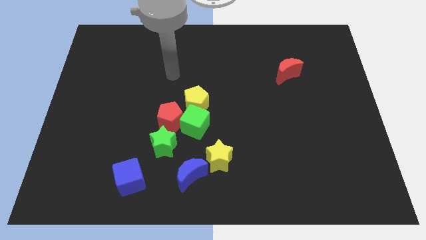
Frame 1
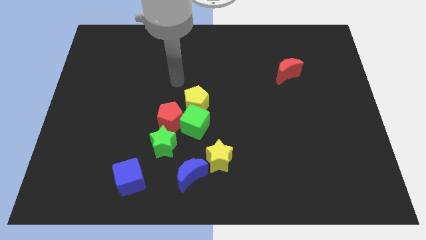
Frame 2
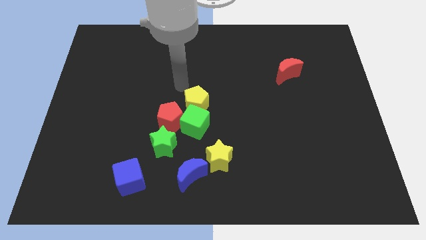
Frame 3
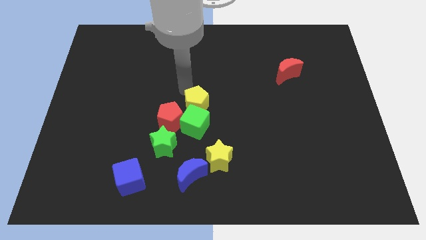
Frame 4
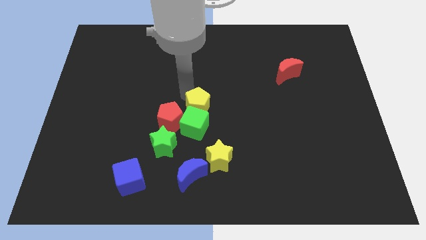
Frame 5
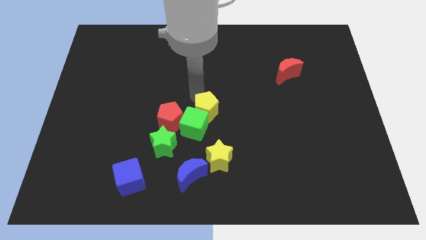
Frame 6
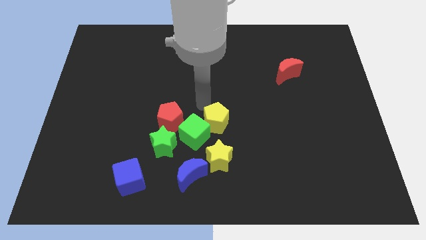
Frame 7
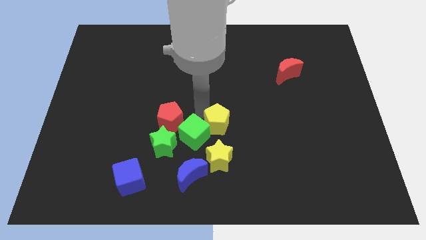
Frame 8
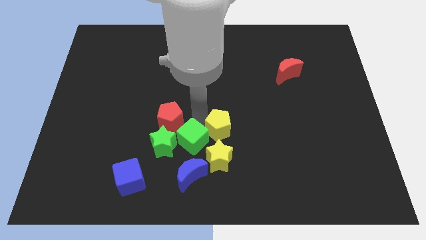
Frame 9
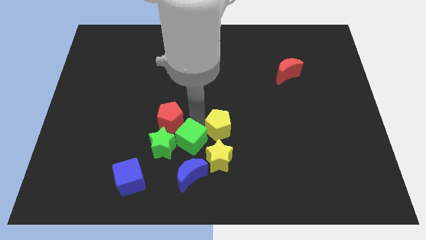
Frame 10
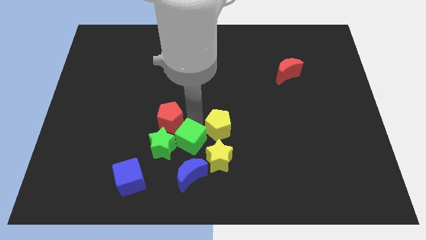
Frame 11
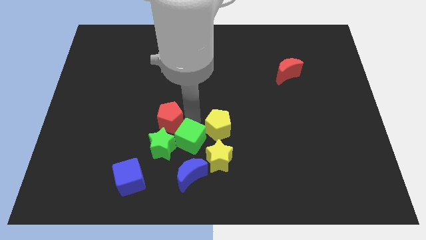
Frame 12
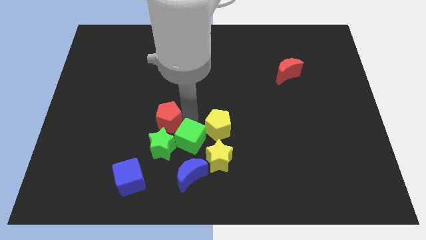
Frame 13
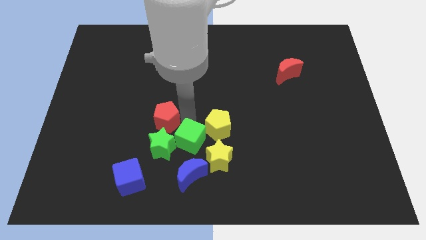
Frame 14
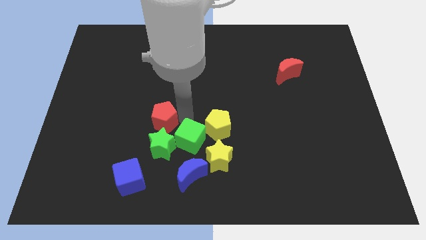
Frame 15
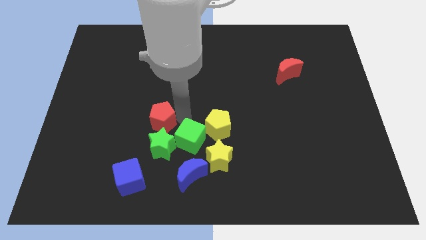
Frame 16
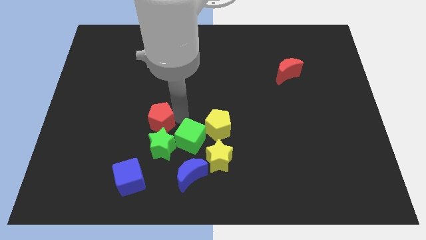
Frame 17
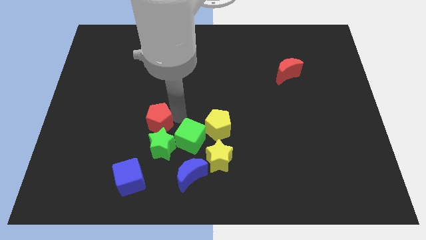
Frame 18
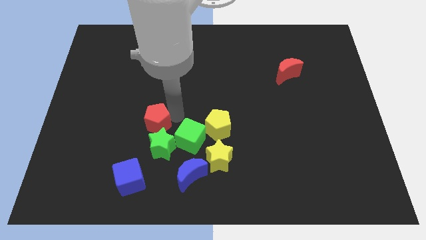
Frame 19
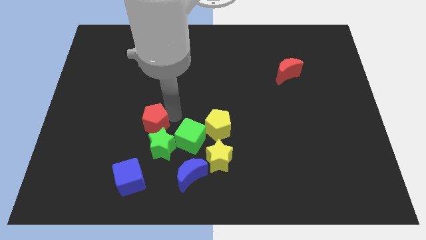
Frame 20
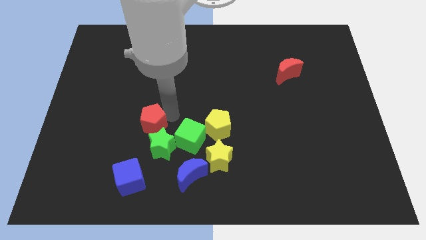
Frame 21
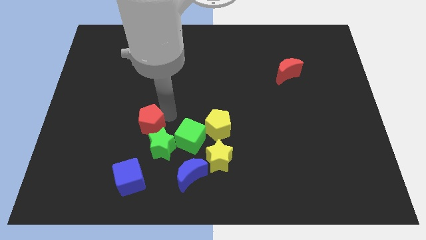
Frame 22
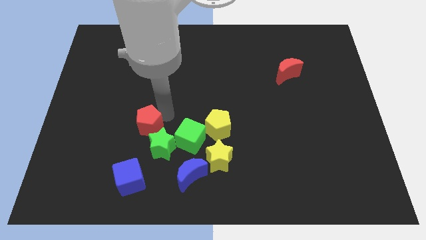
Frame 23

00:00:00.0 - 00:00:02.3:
separate the red pentagon from the green cube, green star, and yellow pentagon

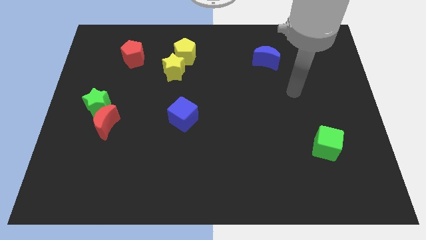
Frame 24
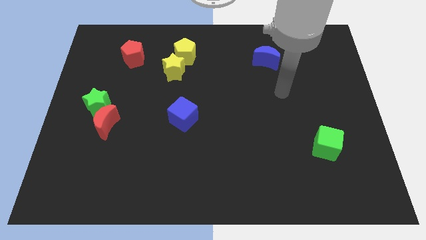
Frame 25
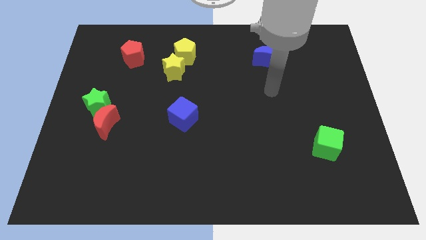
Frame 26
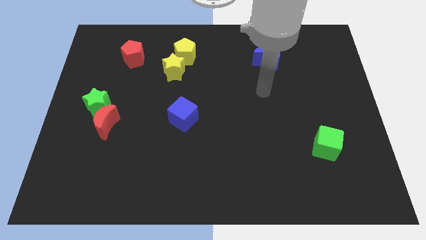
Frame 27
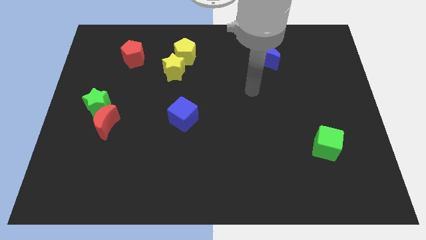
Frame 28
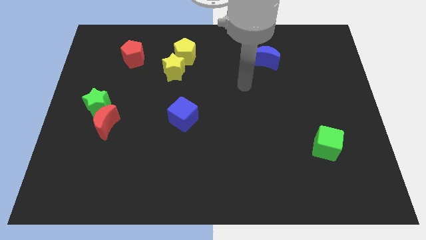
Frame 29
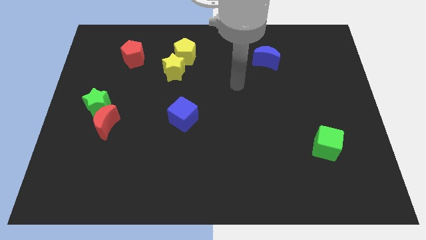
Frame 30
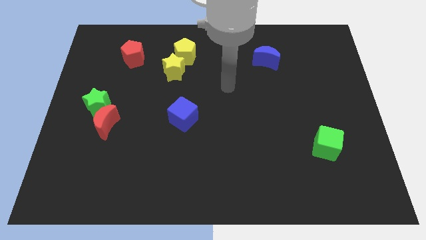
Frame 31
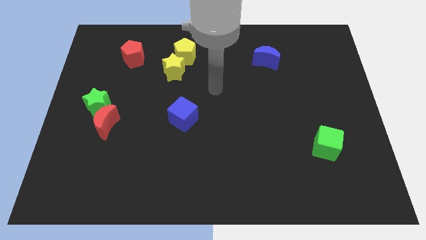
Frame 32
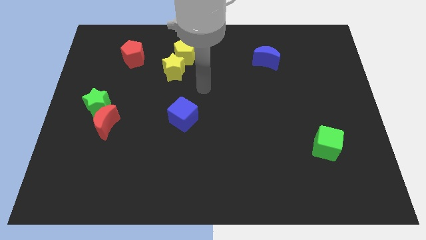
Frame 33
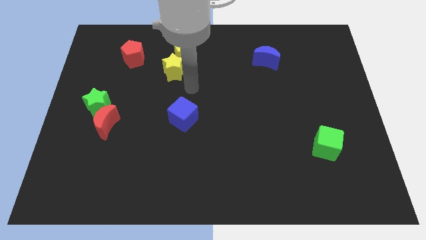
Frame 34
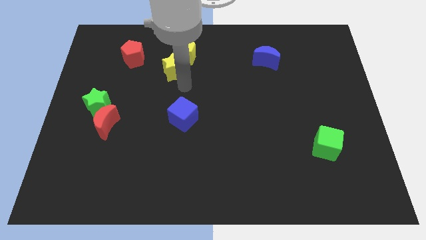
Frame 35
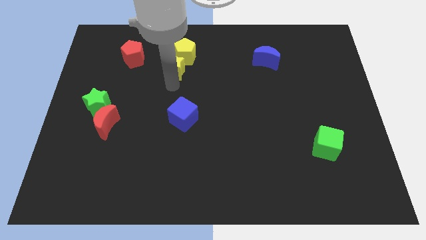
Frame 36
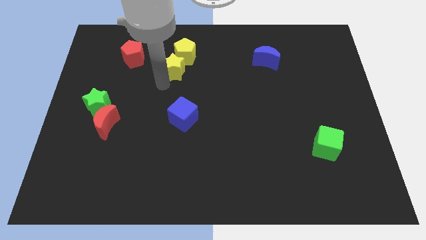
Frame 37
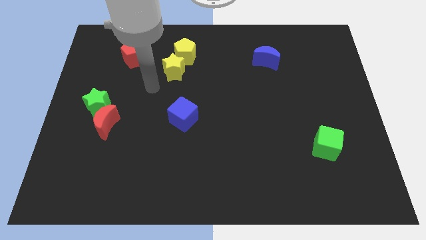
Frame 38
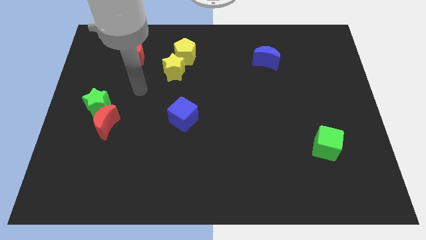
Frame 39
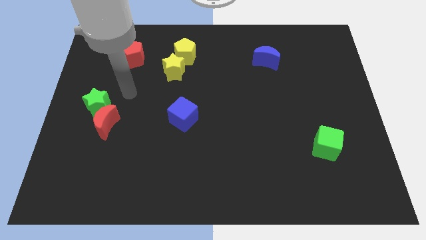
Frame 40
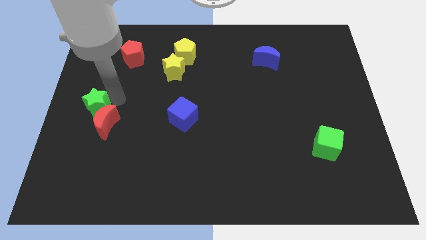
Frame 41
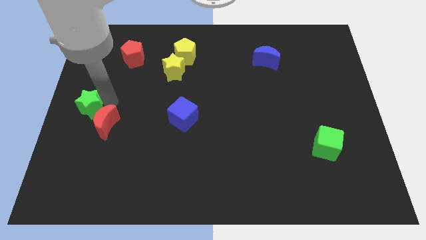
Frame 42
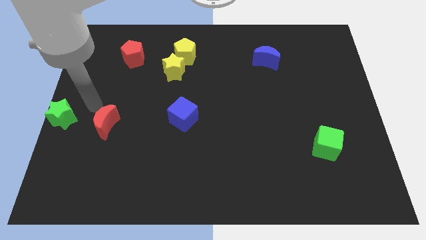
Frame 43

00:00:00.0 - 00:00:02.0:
pull the red moon apart from the green star

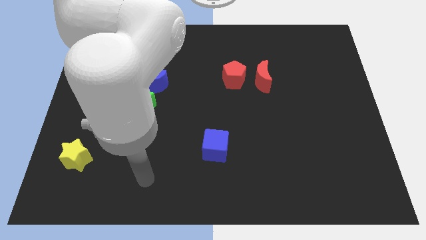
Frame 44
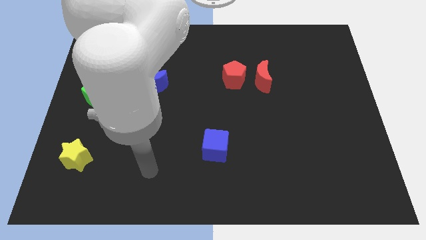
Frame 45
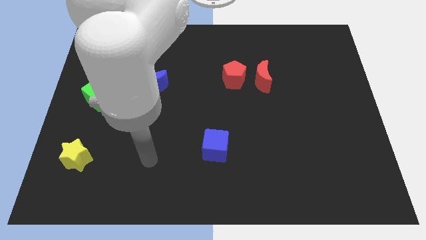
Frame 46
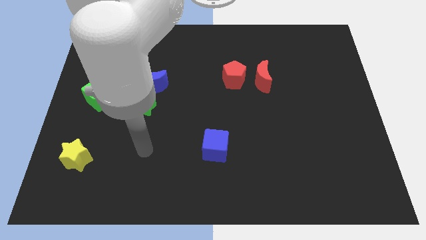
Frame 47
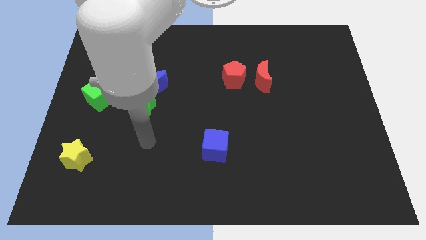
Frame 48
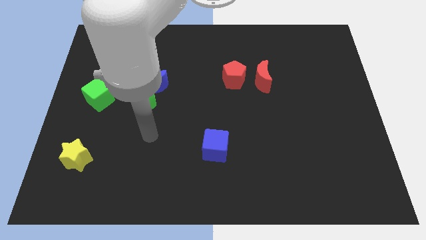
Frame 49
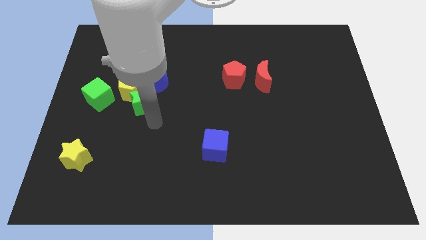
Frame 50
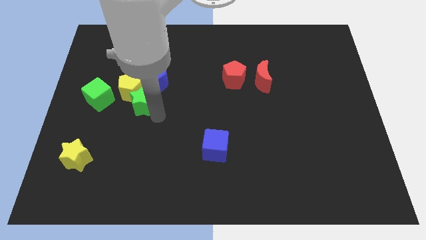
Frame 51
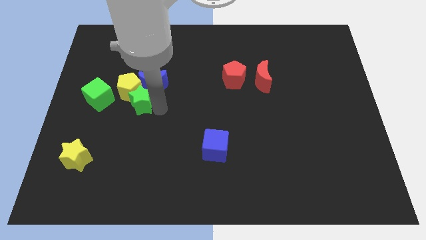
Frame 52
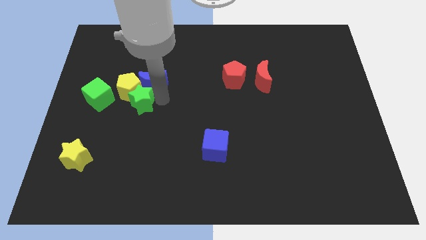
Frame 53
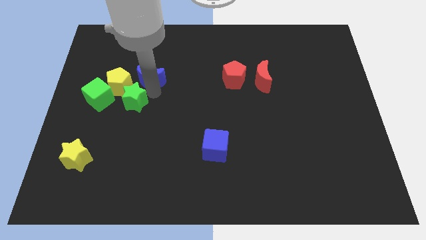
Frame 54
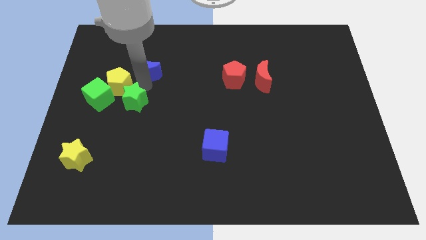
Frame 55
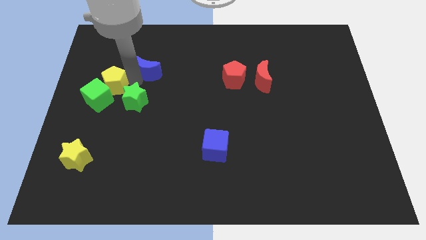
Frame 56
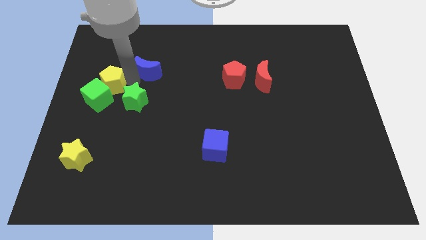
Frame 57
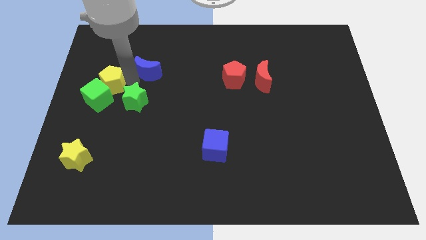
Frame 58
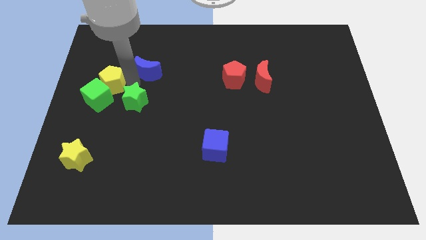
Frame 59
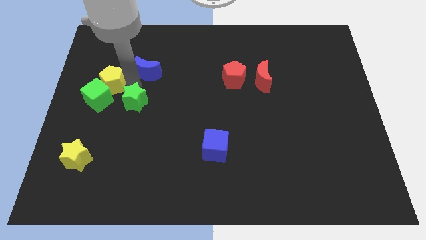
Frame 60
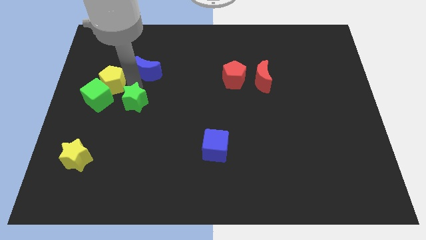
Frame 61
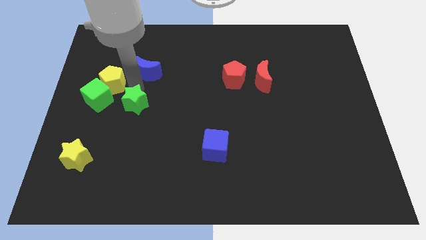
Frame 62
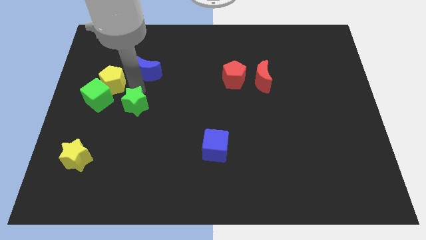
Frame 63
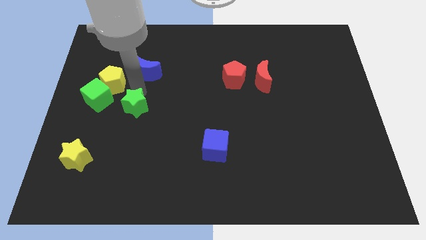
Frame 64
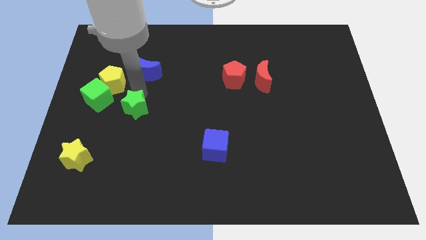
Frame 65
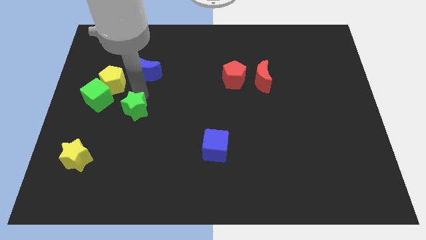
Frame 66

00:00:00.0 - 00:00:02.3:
pull the green star apart from the yellow pentagon and blue moon

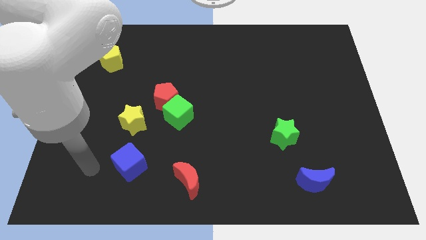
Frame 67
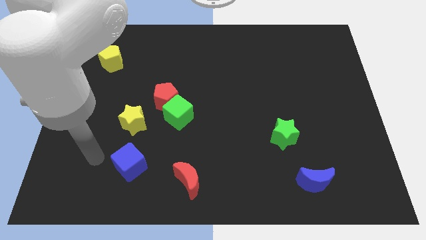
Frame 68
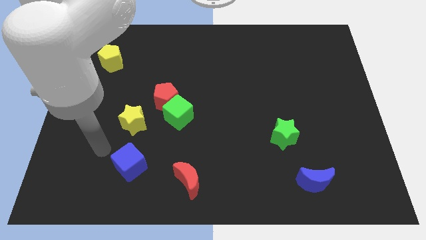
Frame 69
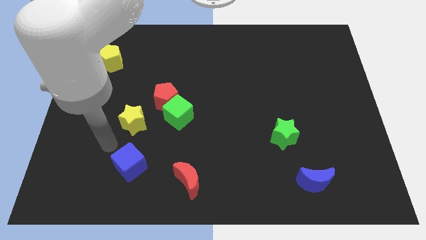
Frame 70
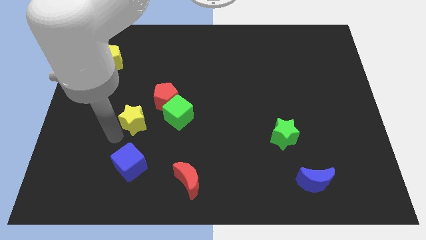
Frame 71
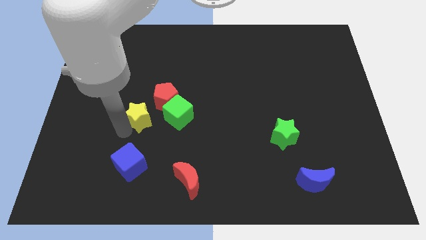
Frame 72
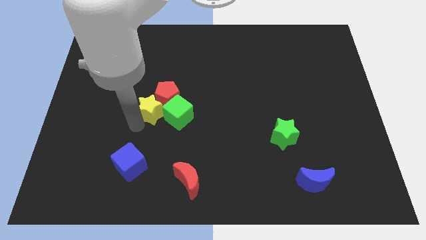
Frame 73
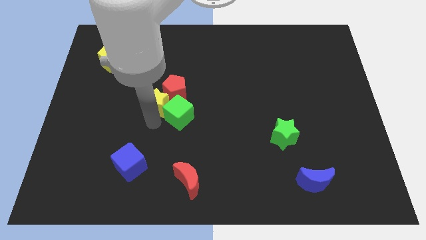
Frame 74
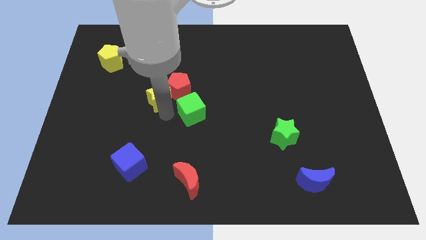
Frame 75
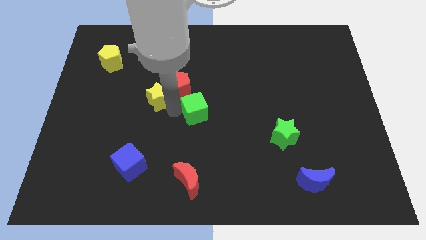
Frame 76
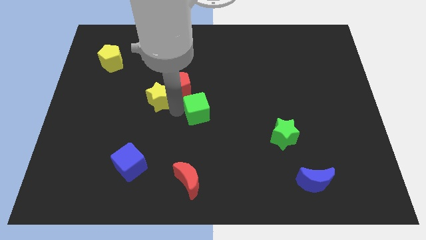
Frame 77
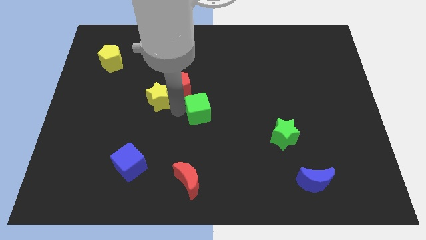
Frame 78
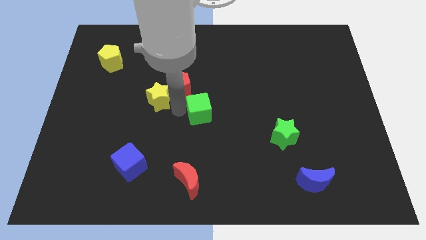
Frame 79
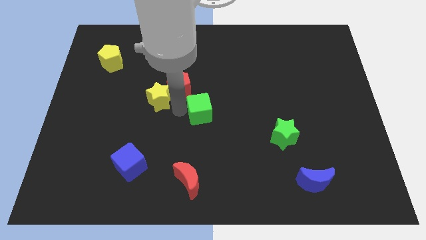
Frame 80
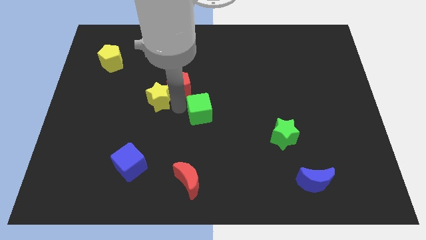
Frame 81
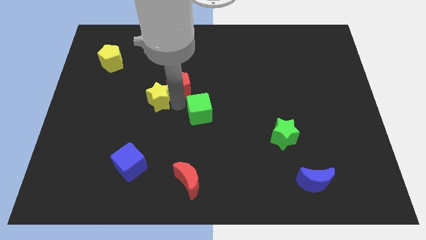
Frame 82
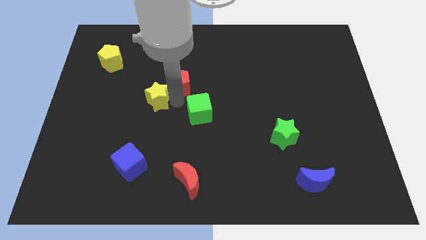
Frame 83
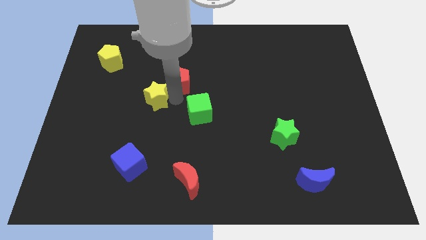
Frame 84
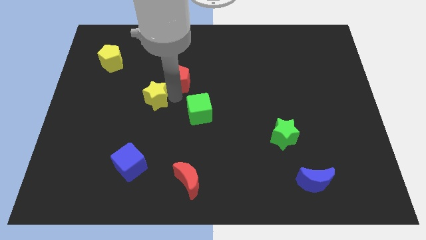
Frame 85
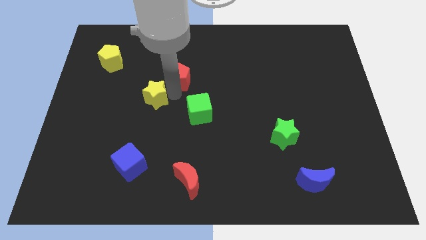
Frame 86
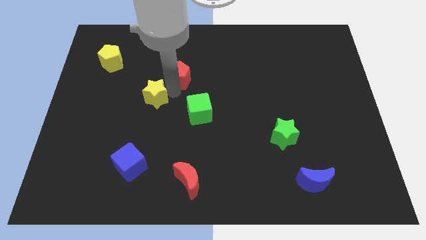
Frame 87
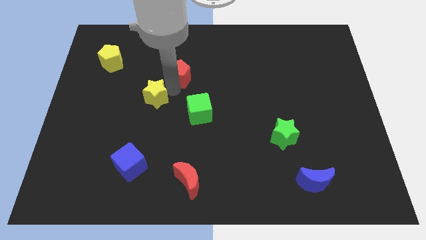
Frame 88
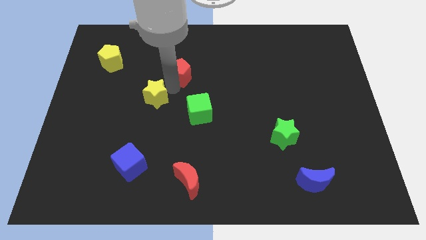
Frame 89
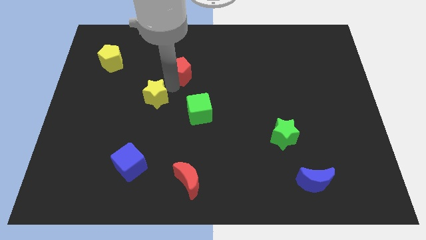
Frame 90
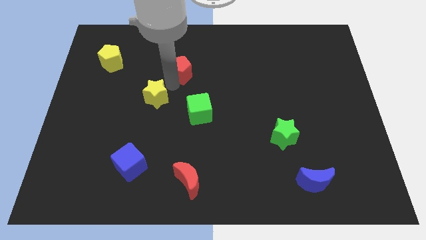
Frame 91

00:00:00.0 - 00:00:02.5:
separate the red pentagon from the green cube and yellow star

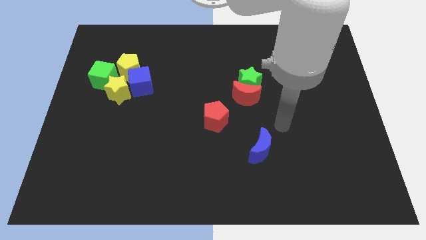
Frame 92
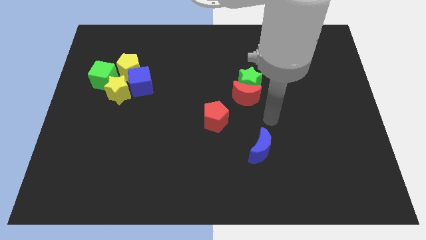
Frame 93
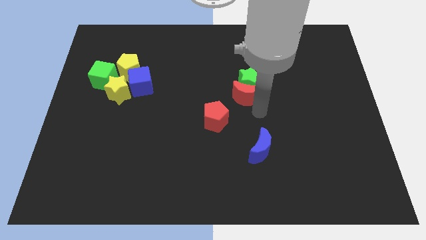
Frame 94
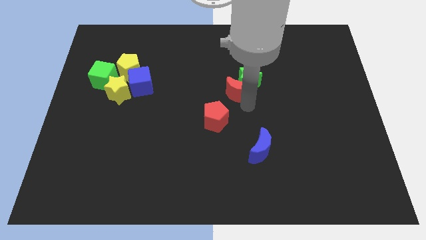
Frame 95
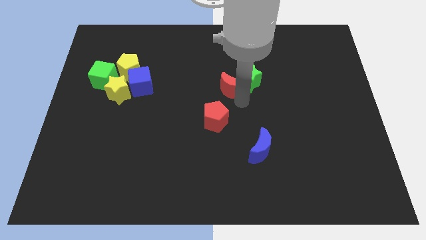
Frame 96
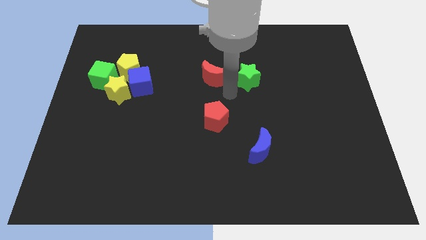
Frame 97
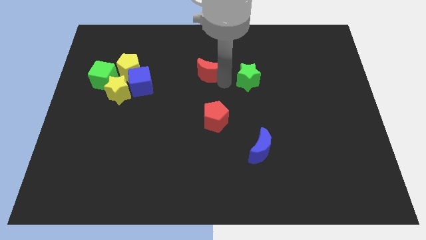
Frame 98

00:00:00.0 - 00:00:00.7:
move the green star away from the red moon
